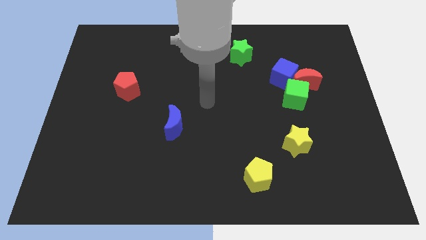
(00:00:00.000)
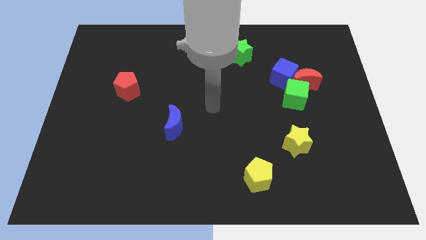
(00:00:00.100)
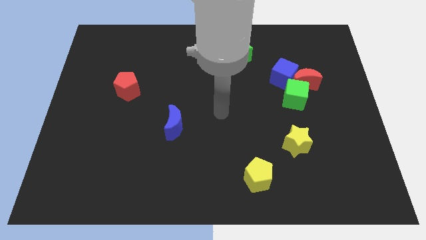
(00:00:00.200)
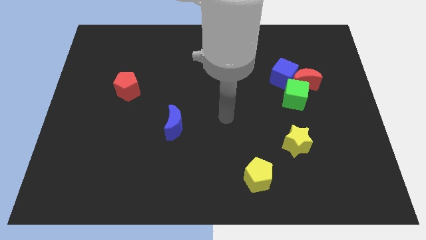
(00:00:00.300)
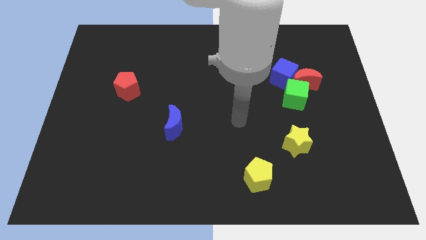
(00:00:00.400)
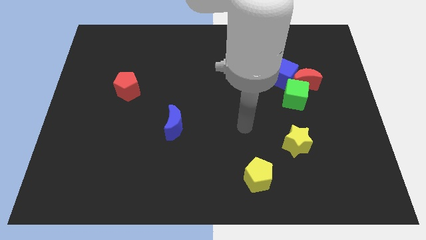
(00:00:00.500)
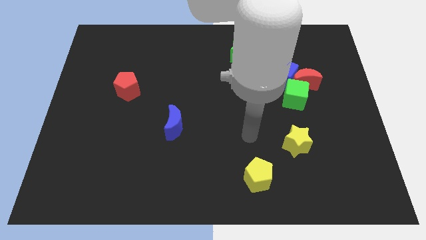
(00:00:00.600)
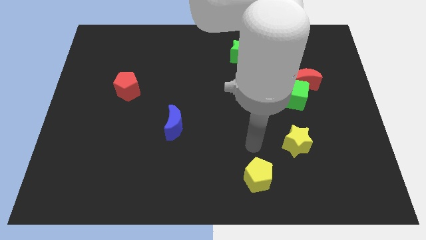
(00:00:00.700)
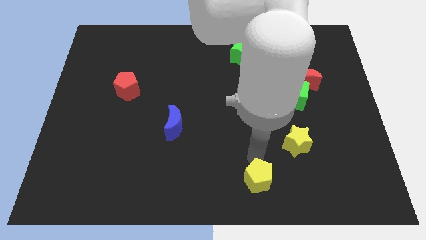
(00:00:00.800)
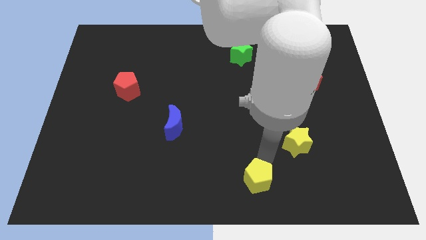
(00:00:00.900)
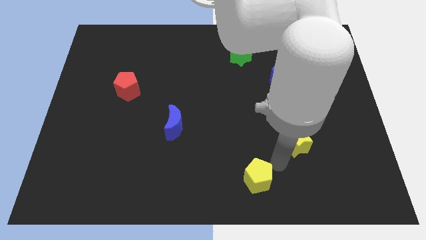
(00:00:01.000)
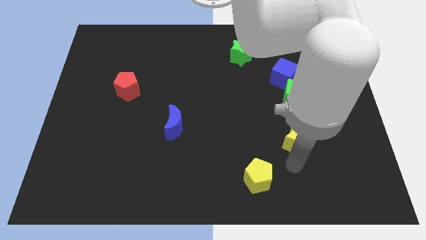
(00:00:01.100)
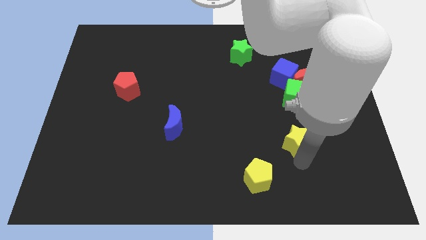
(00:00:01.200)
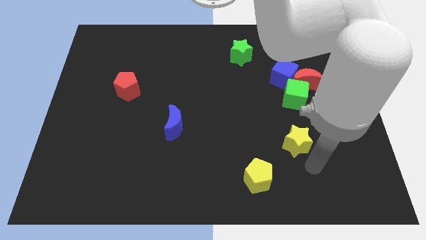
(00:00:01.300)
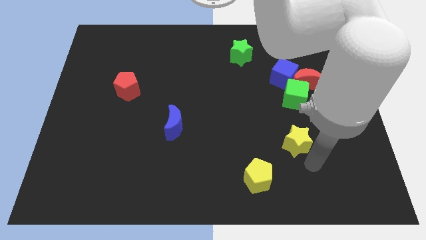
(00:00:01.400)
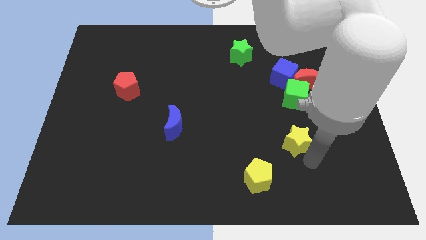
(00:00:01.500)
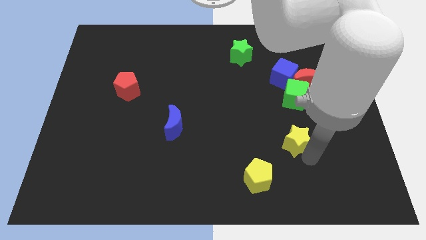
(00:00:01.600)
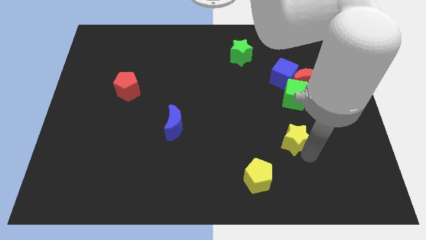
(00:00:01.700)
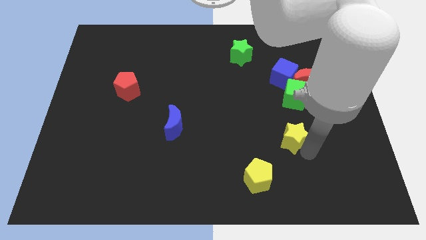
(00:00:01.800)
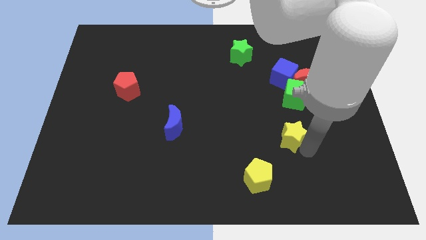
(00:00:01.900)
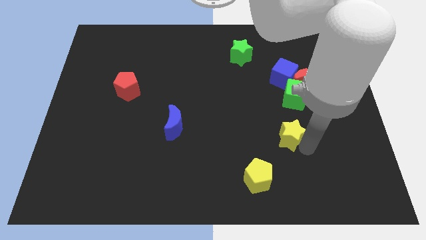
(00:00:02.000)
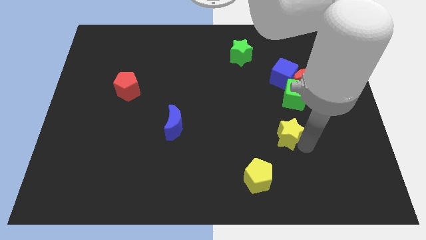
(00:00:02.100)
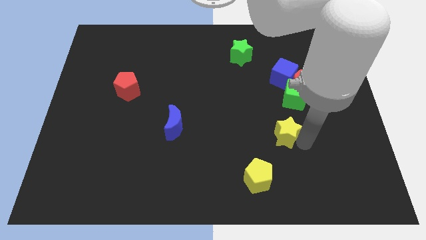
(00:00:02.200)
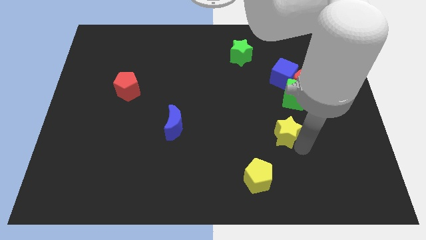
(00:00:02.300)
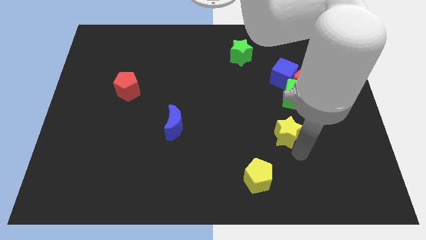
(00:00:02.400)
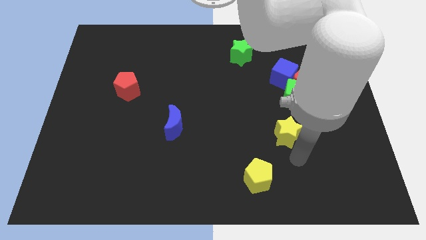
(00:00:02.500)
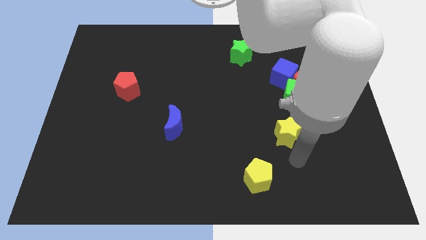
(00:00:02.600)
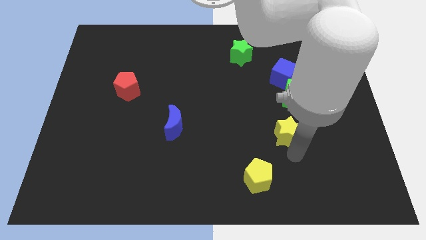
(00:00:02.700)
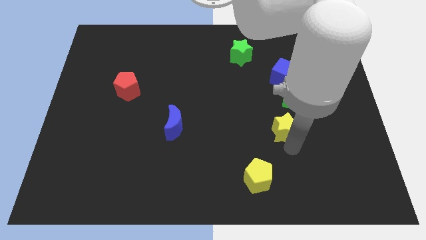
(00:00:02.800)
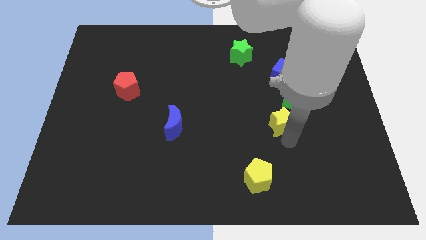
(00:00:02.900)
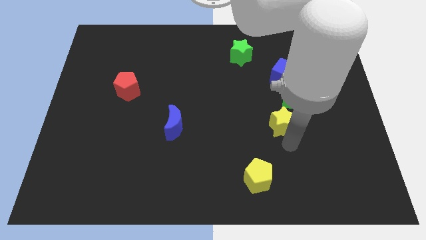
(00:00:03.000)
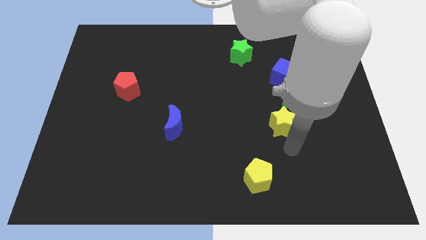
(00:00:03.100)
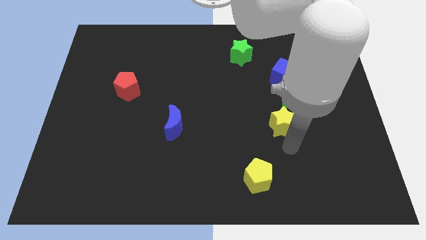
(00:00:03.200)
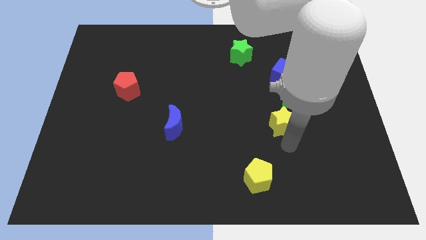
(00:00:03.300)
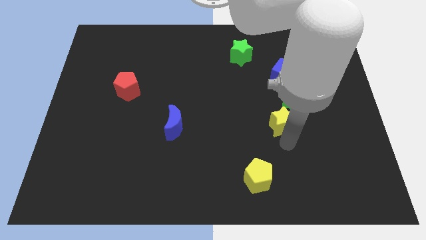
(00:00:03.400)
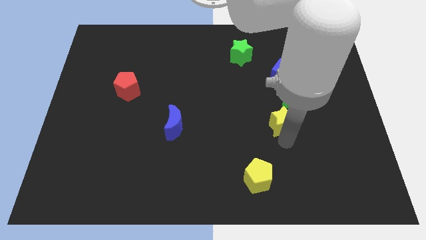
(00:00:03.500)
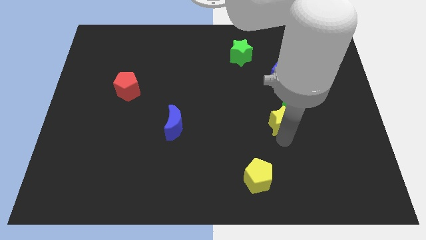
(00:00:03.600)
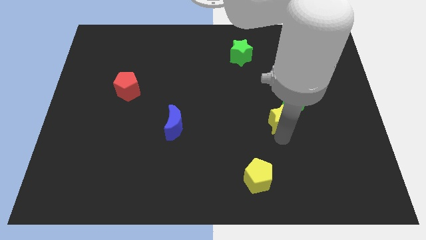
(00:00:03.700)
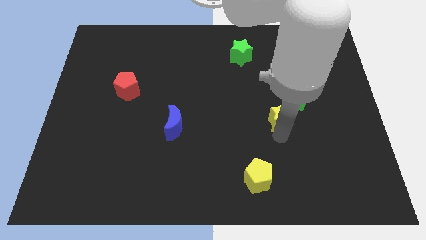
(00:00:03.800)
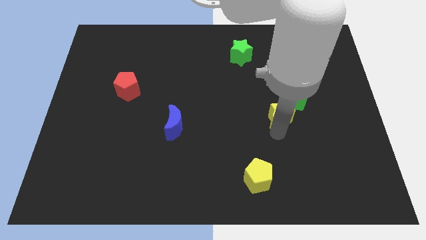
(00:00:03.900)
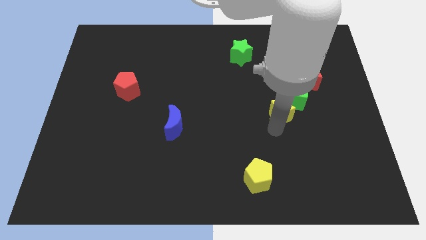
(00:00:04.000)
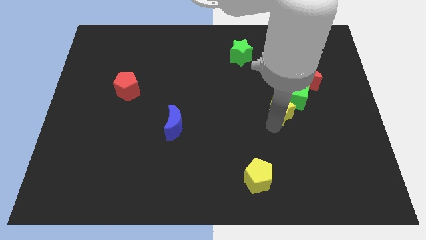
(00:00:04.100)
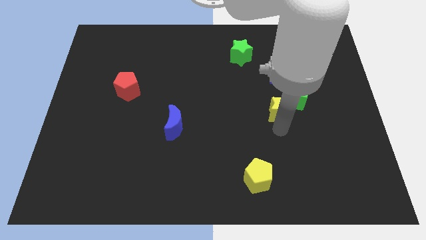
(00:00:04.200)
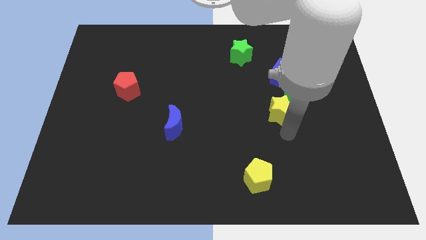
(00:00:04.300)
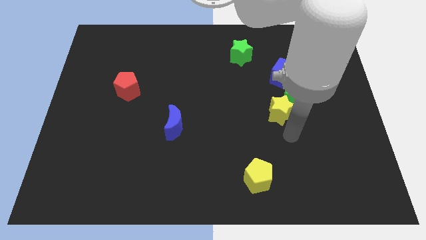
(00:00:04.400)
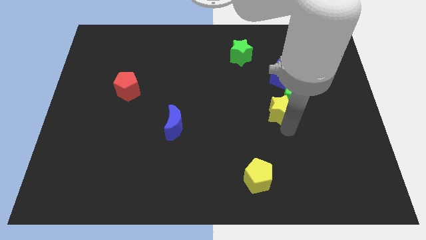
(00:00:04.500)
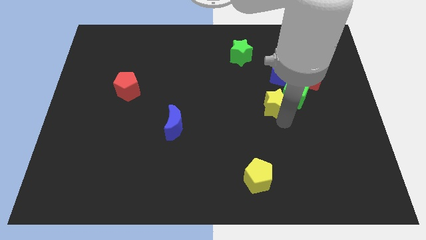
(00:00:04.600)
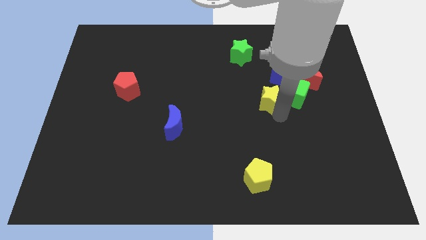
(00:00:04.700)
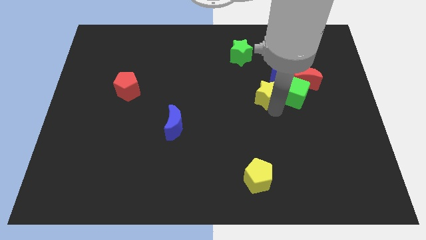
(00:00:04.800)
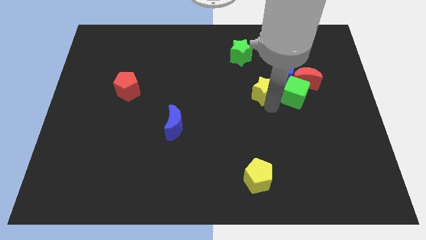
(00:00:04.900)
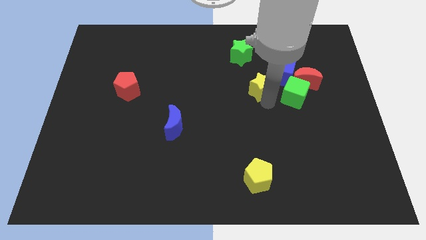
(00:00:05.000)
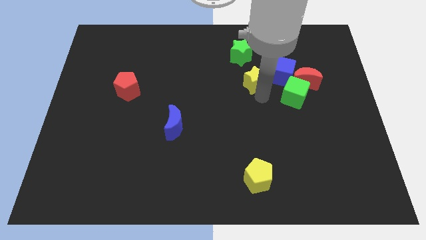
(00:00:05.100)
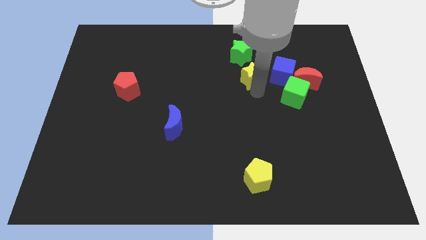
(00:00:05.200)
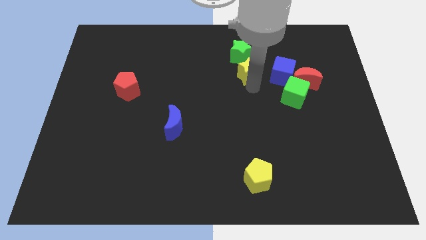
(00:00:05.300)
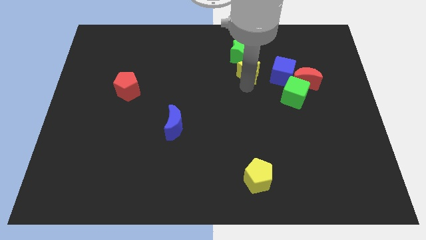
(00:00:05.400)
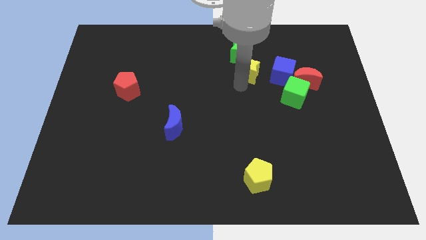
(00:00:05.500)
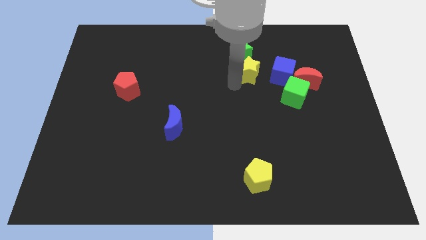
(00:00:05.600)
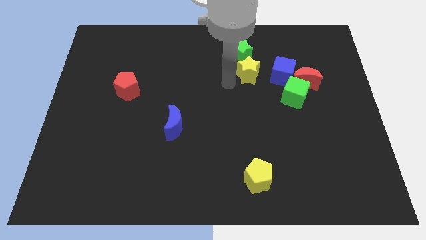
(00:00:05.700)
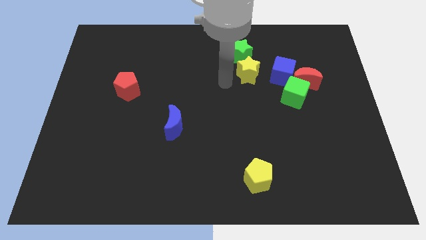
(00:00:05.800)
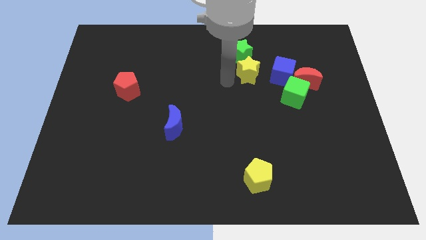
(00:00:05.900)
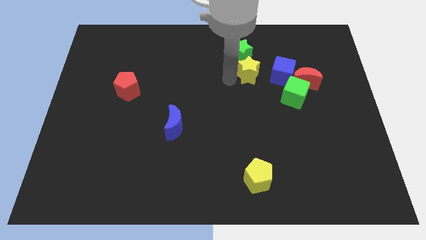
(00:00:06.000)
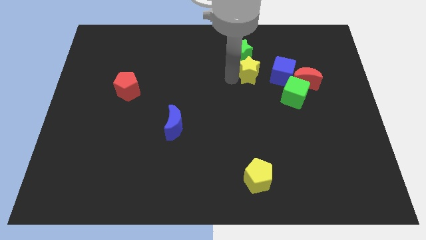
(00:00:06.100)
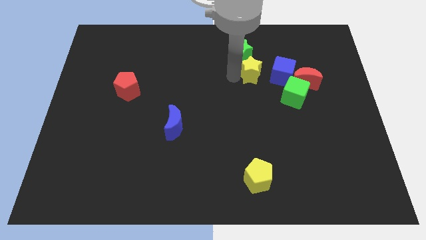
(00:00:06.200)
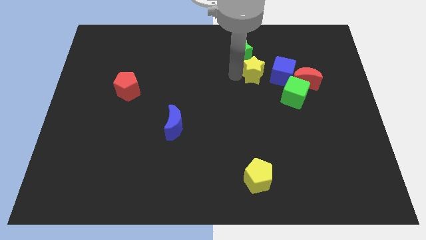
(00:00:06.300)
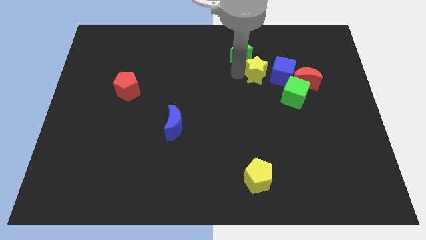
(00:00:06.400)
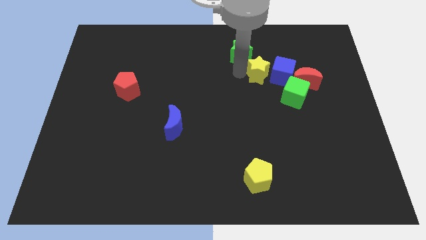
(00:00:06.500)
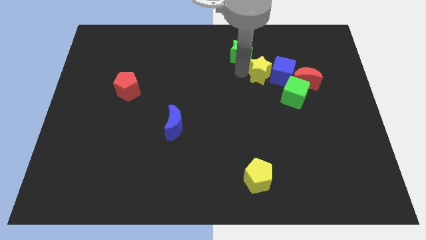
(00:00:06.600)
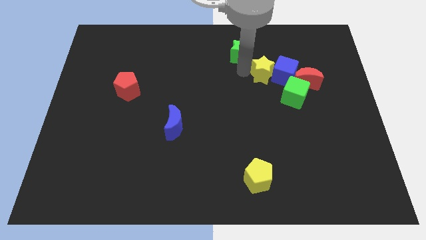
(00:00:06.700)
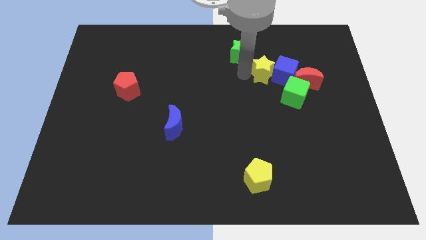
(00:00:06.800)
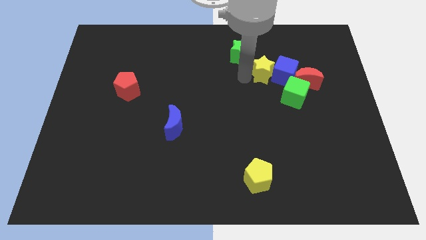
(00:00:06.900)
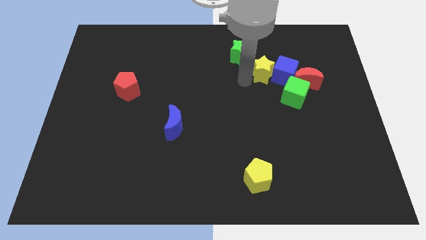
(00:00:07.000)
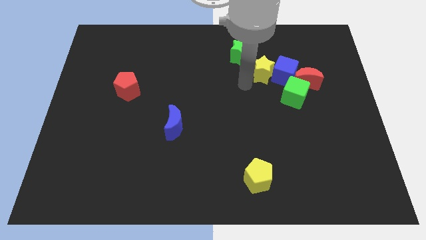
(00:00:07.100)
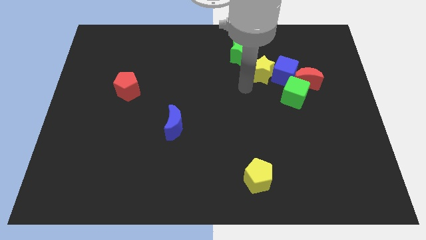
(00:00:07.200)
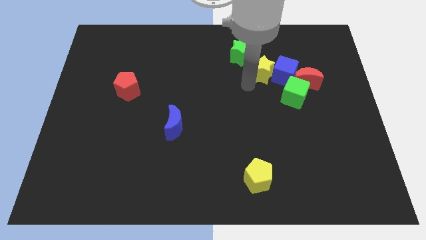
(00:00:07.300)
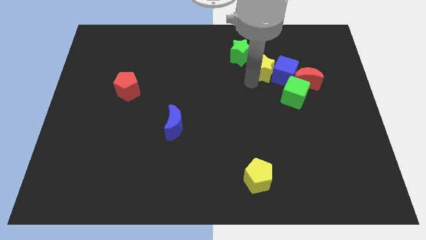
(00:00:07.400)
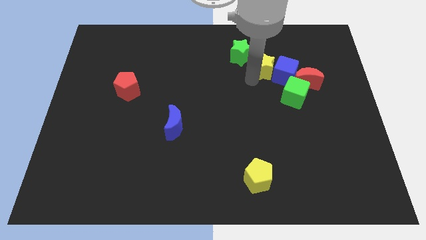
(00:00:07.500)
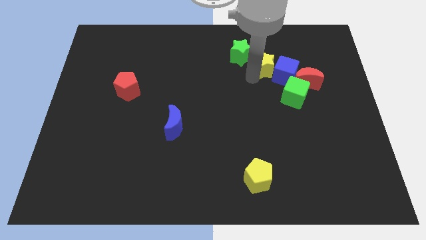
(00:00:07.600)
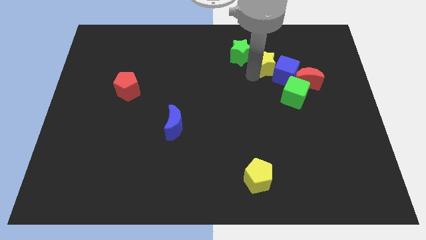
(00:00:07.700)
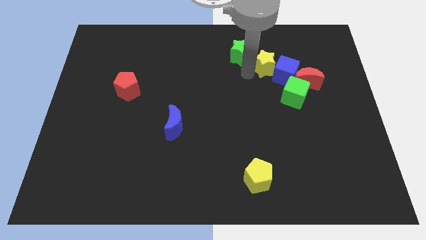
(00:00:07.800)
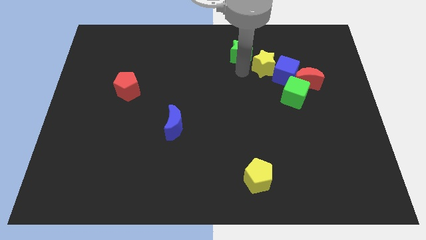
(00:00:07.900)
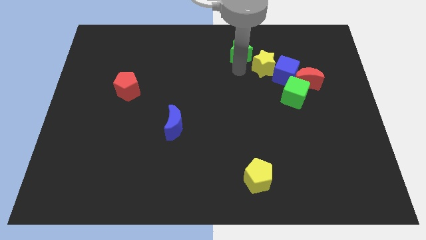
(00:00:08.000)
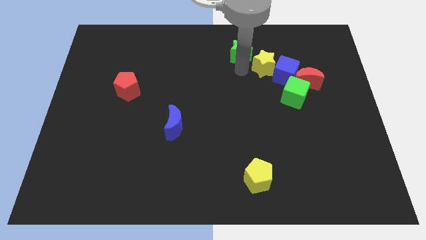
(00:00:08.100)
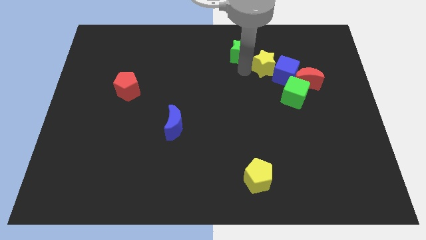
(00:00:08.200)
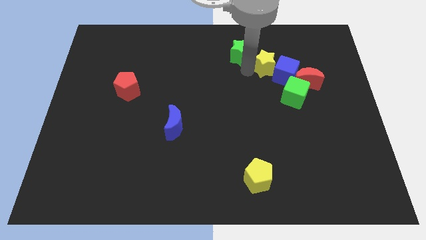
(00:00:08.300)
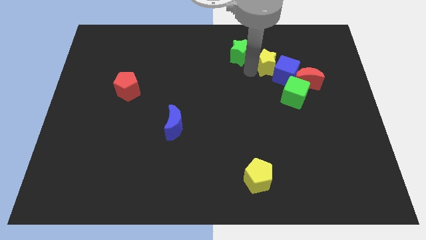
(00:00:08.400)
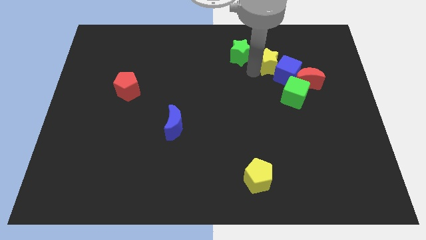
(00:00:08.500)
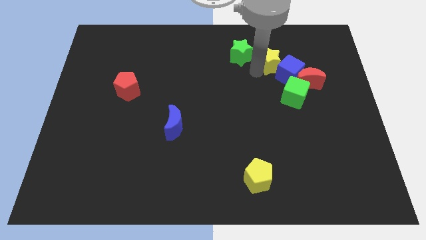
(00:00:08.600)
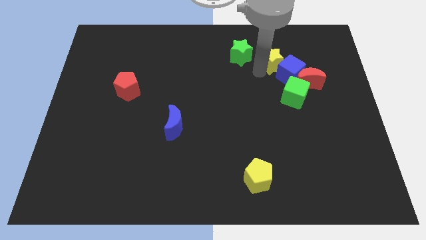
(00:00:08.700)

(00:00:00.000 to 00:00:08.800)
put the yellow star to the top of the green cube
